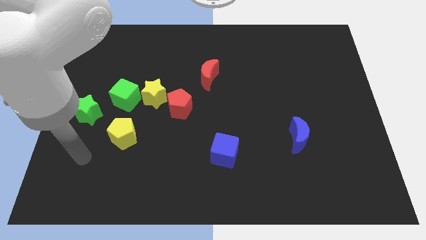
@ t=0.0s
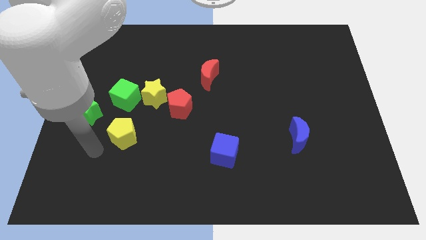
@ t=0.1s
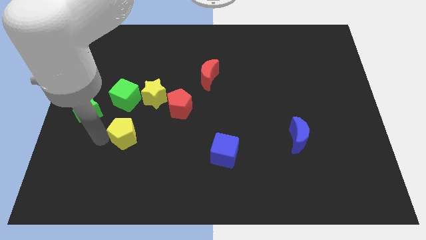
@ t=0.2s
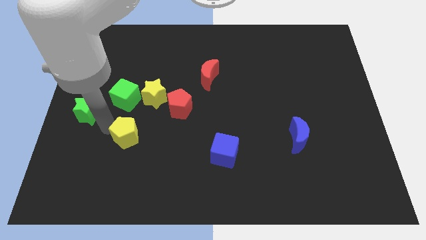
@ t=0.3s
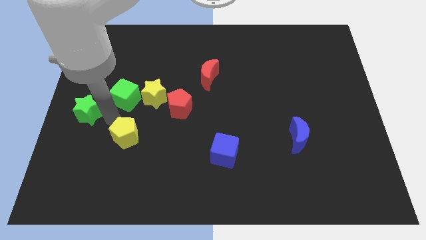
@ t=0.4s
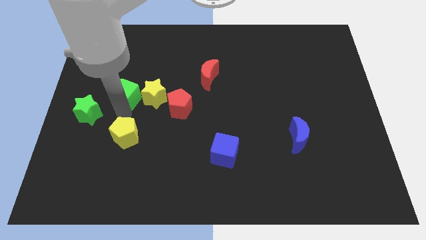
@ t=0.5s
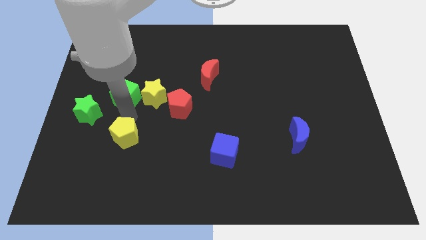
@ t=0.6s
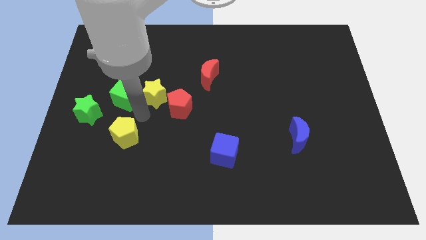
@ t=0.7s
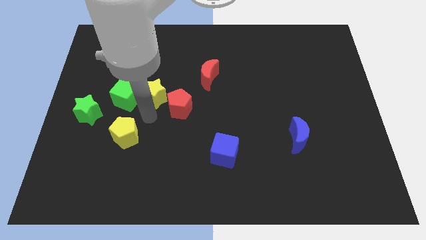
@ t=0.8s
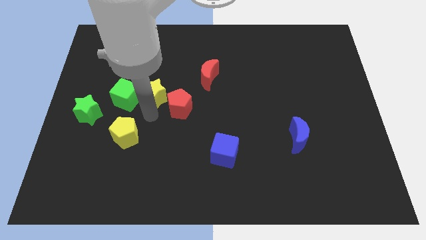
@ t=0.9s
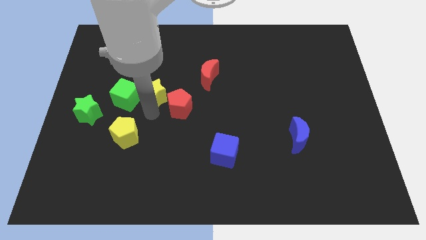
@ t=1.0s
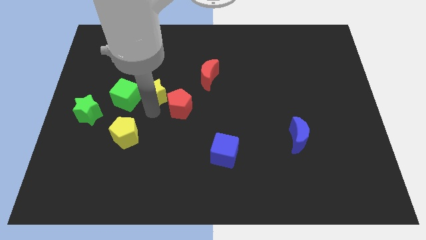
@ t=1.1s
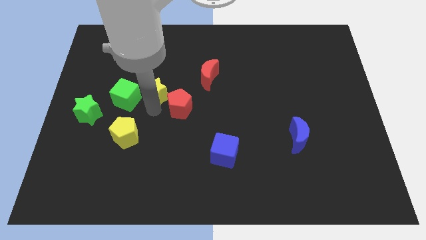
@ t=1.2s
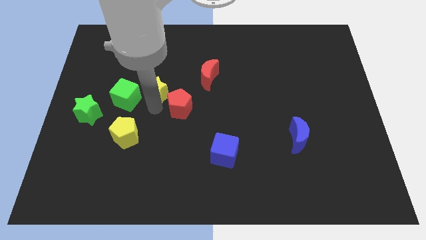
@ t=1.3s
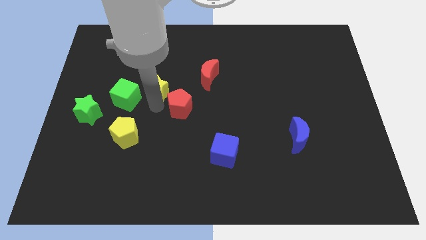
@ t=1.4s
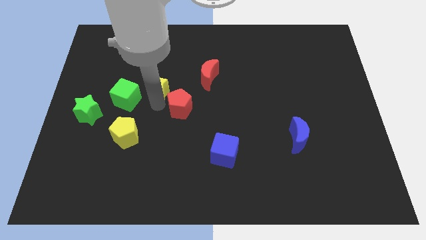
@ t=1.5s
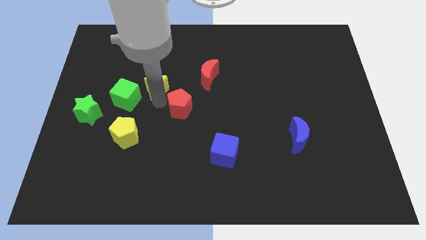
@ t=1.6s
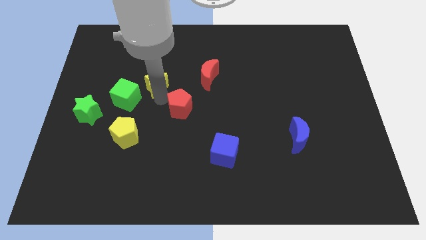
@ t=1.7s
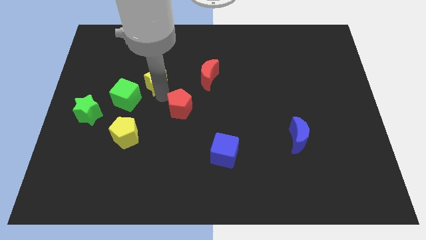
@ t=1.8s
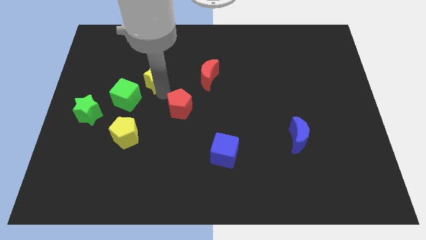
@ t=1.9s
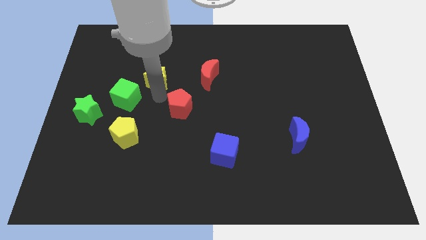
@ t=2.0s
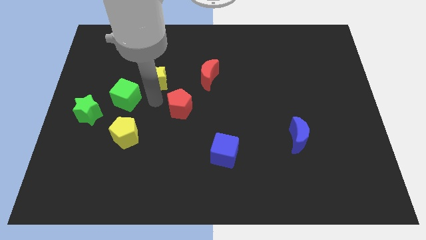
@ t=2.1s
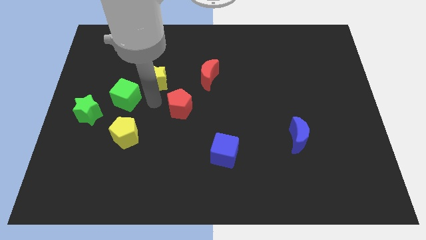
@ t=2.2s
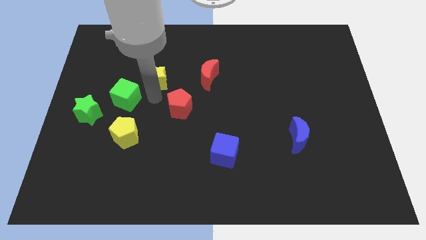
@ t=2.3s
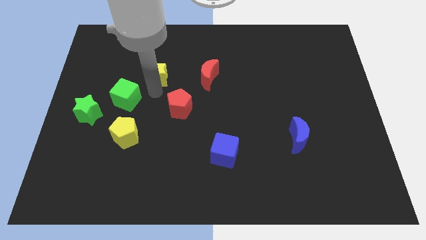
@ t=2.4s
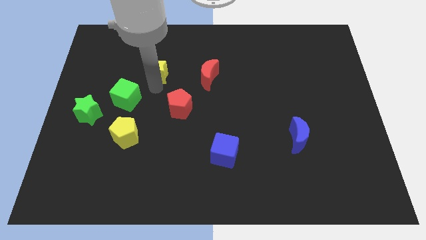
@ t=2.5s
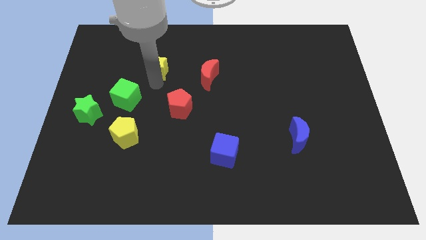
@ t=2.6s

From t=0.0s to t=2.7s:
move the yellow star away from the green cube and red pentagon

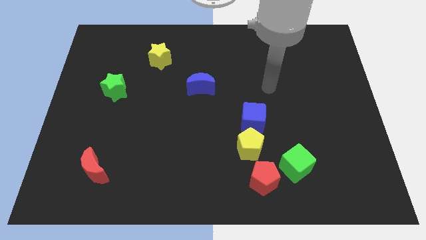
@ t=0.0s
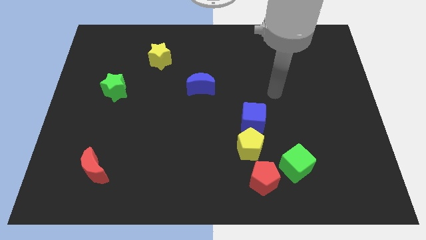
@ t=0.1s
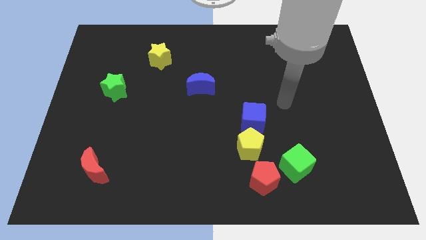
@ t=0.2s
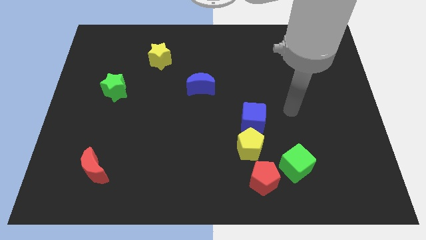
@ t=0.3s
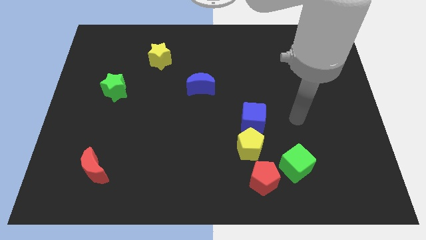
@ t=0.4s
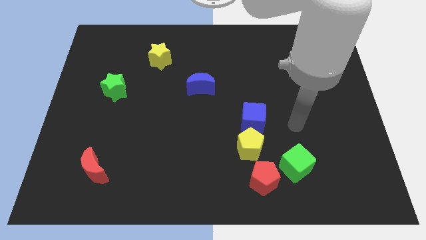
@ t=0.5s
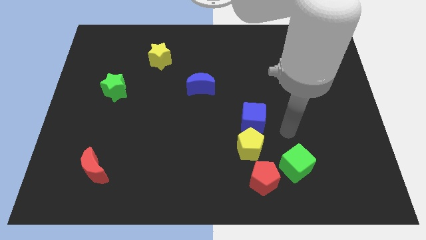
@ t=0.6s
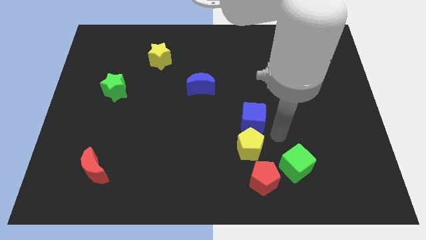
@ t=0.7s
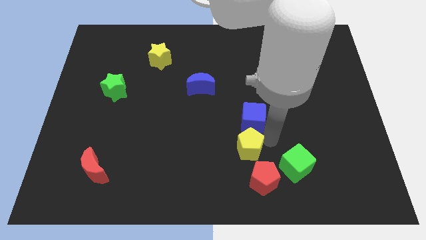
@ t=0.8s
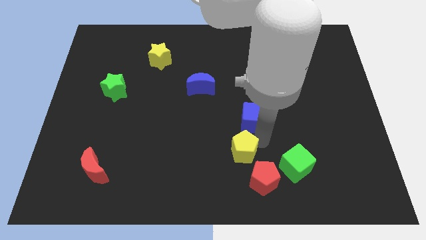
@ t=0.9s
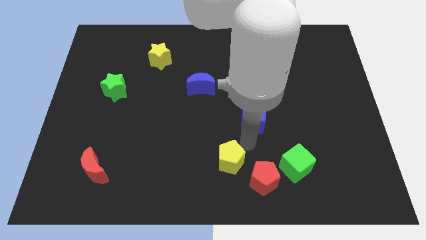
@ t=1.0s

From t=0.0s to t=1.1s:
move the blue cube away from the yellow pentagon

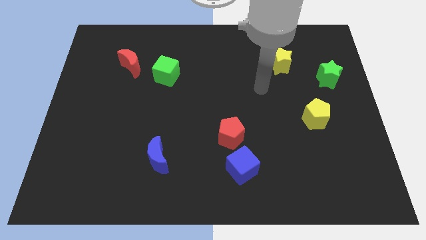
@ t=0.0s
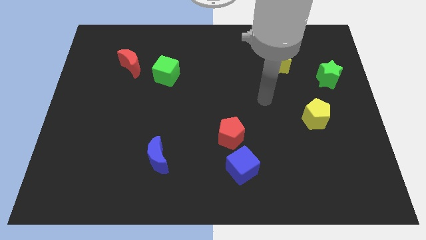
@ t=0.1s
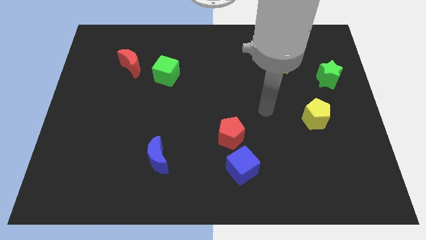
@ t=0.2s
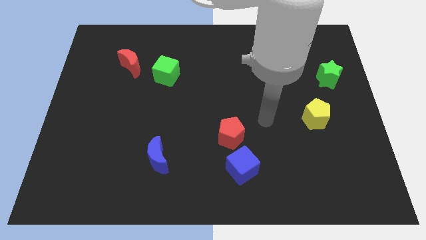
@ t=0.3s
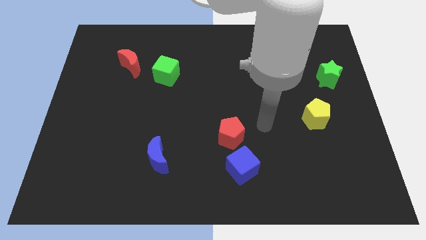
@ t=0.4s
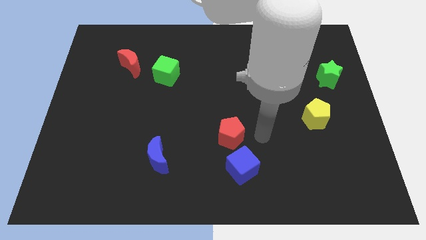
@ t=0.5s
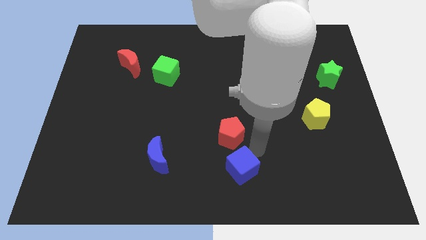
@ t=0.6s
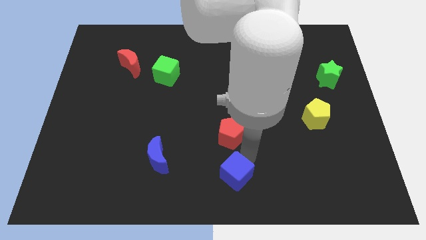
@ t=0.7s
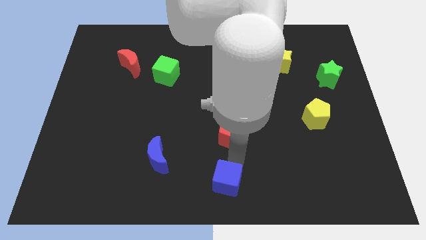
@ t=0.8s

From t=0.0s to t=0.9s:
pull the red pentagon apart from the blue cube

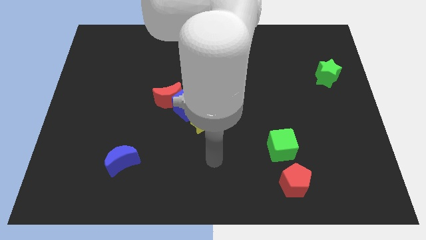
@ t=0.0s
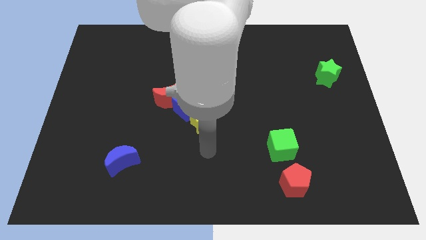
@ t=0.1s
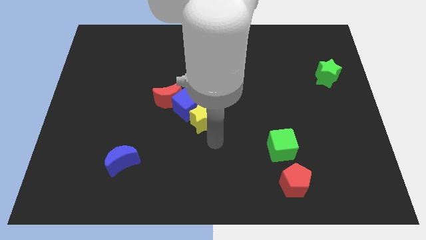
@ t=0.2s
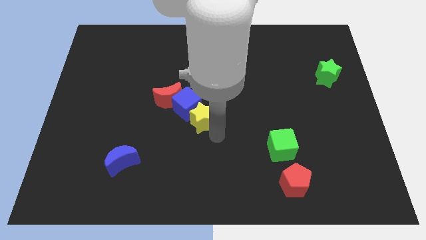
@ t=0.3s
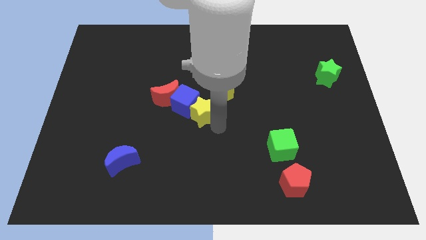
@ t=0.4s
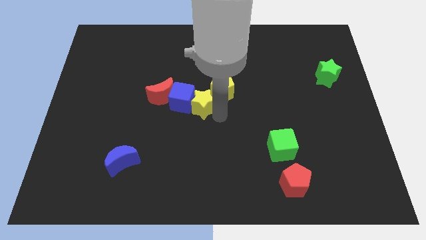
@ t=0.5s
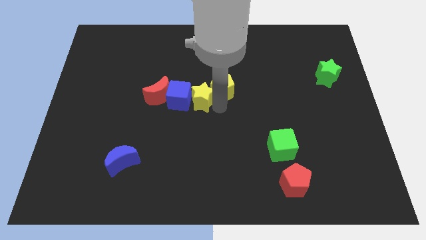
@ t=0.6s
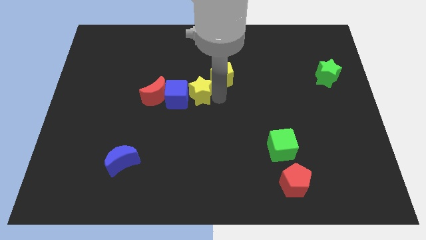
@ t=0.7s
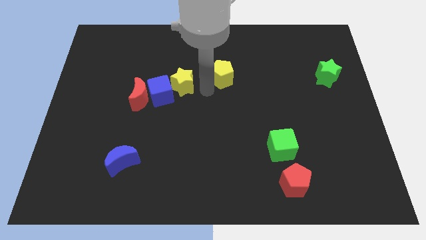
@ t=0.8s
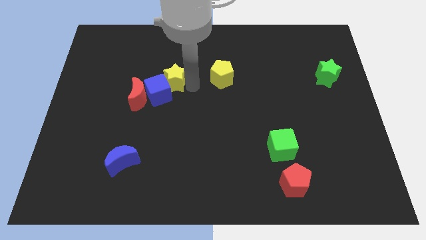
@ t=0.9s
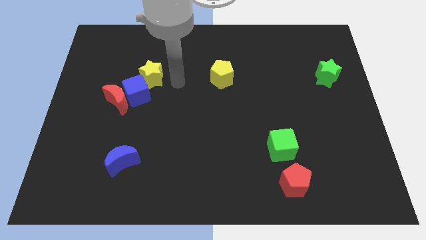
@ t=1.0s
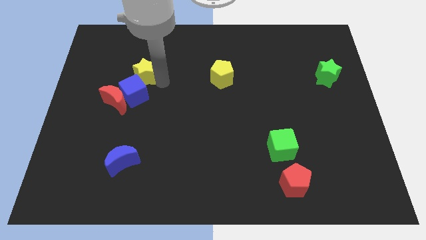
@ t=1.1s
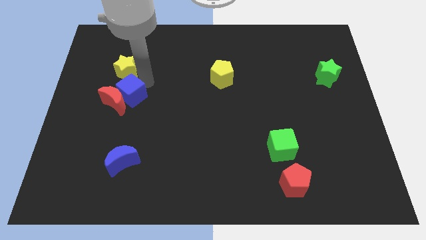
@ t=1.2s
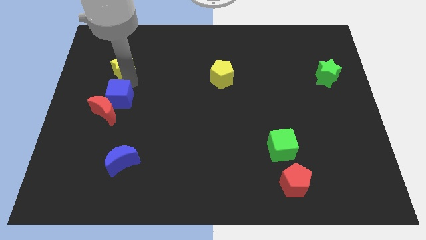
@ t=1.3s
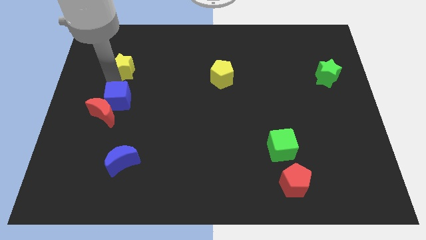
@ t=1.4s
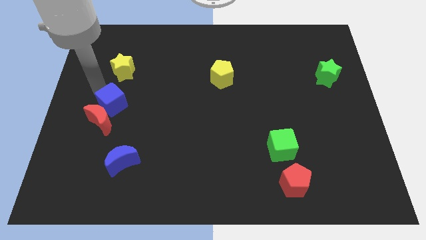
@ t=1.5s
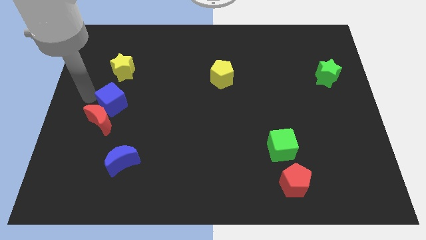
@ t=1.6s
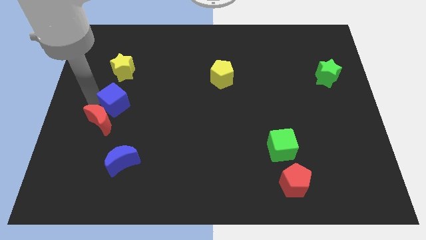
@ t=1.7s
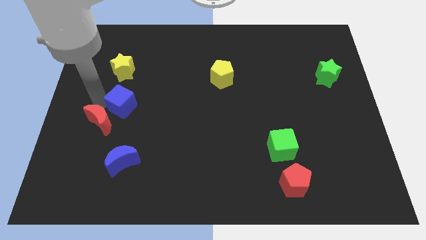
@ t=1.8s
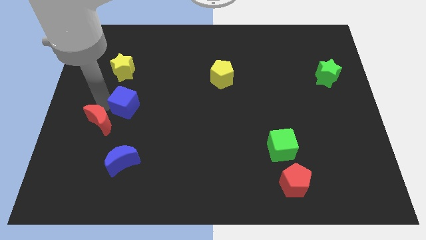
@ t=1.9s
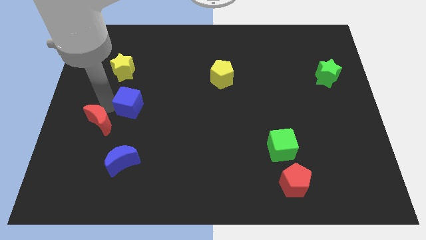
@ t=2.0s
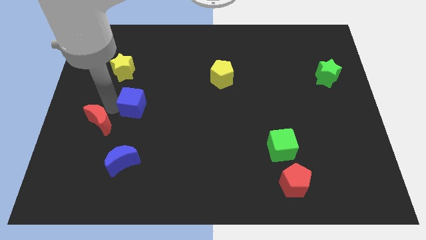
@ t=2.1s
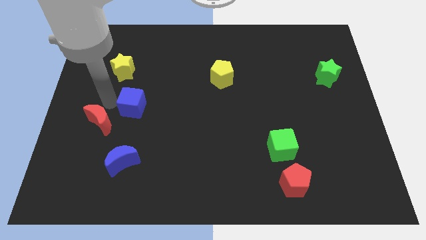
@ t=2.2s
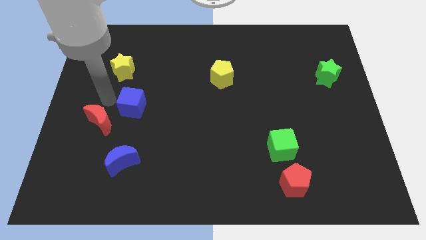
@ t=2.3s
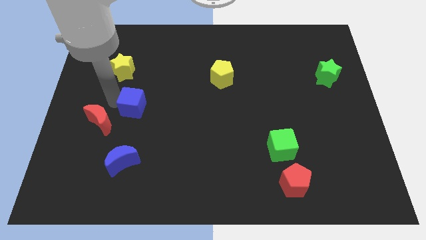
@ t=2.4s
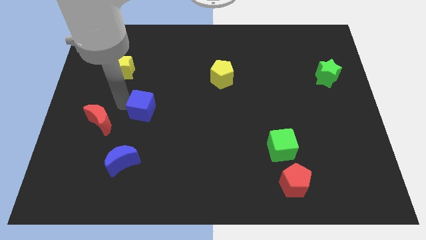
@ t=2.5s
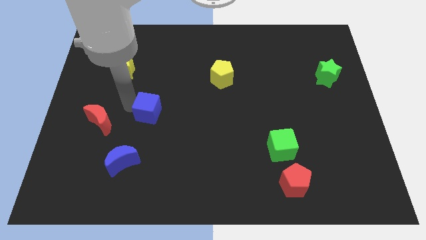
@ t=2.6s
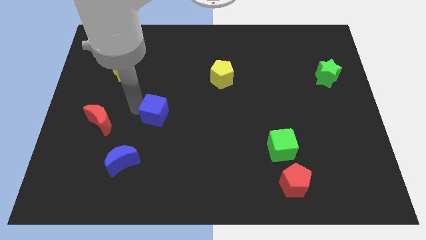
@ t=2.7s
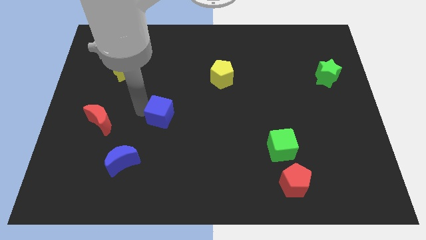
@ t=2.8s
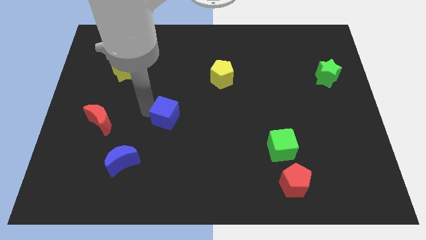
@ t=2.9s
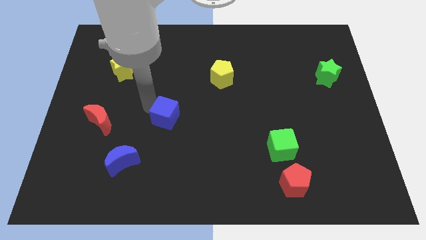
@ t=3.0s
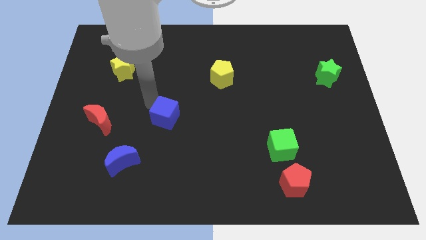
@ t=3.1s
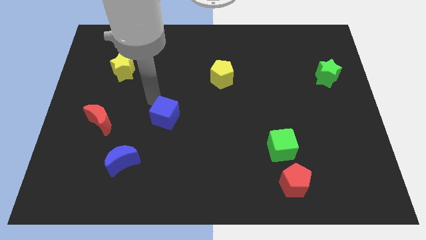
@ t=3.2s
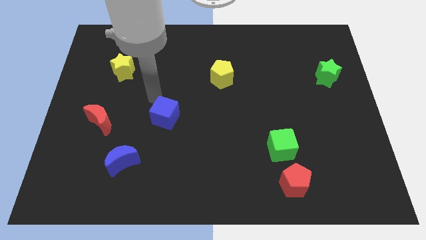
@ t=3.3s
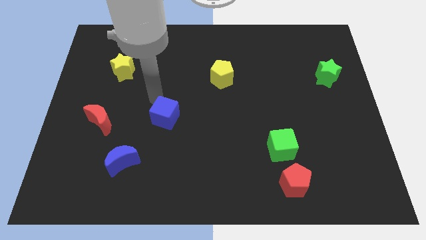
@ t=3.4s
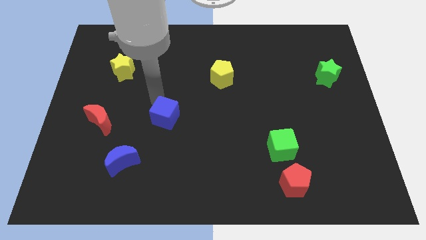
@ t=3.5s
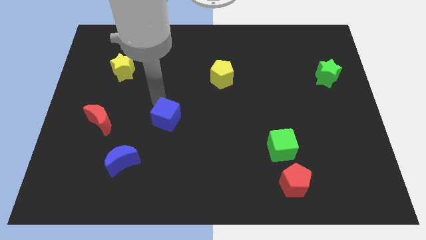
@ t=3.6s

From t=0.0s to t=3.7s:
pull the blue cube apart from the red moon, yellow star, and yellow pentagon

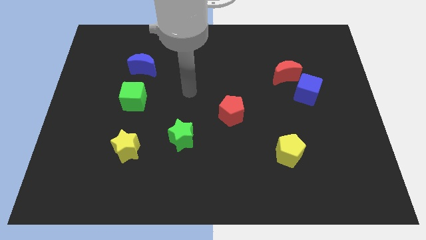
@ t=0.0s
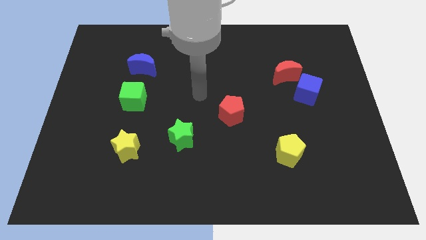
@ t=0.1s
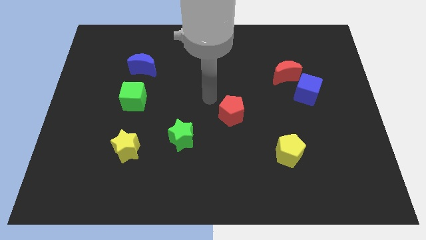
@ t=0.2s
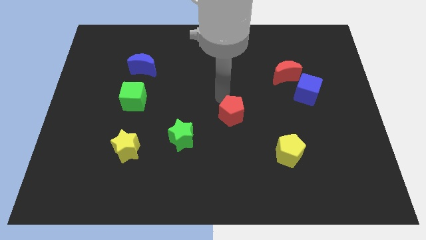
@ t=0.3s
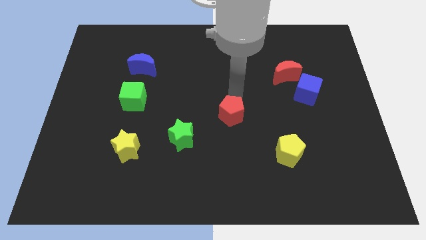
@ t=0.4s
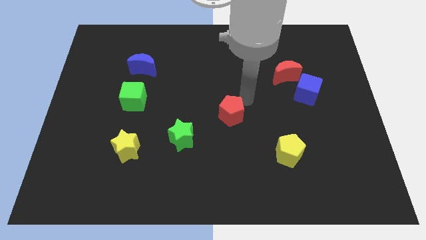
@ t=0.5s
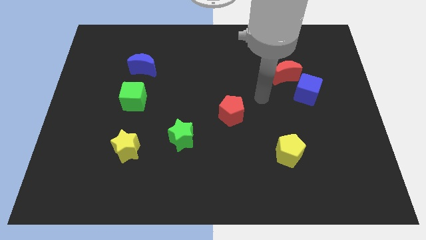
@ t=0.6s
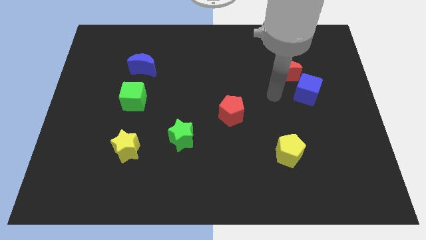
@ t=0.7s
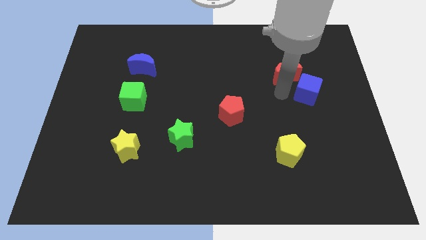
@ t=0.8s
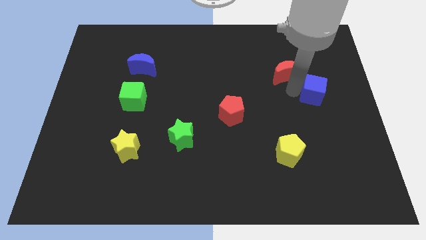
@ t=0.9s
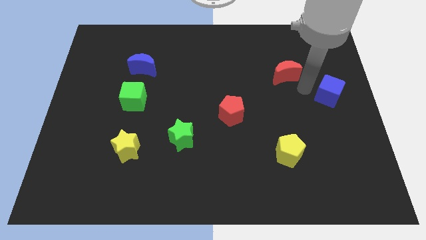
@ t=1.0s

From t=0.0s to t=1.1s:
move the red moon away from the blue cube

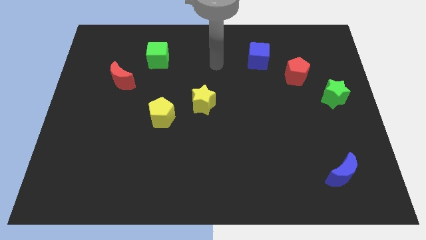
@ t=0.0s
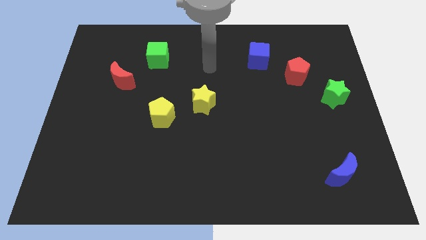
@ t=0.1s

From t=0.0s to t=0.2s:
move the yellow star away from the yellow pentagon
